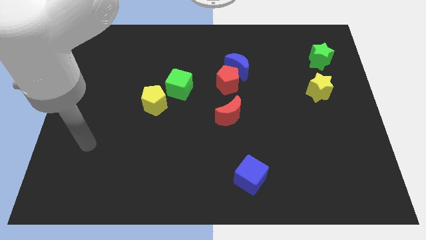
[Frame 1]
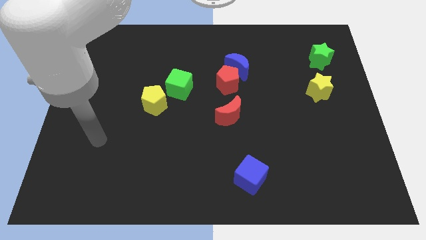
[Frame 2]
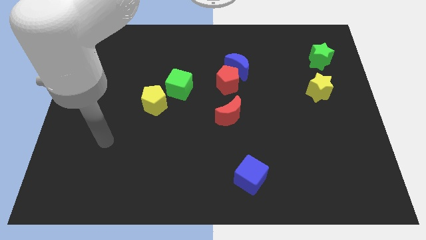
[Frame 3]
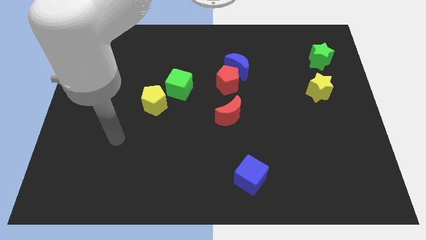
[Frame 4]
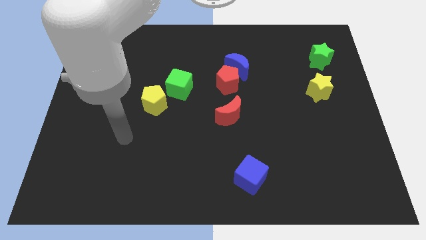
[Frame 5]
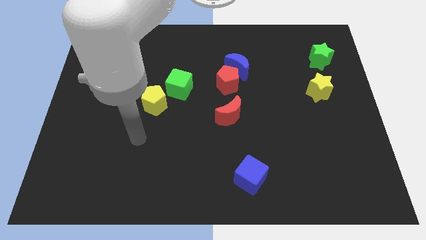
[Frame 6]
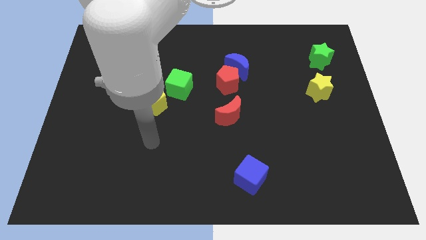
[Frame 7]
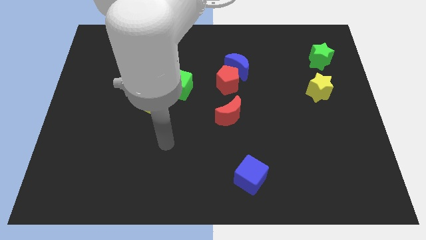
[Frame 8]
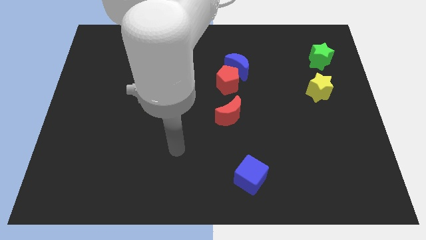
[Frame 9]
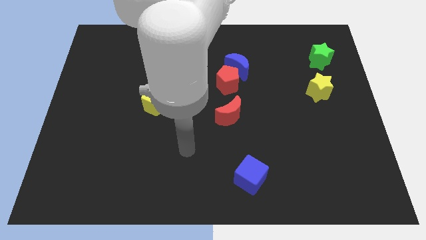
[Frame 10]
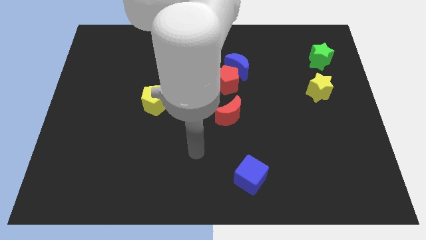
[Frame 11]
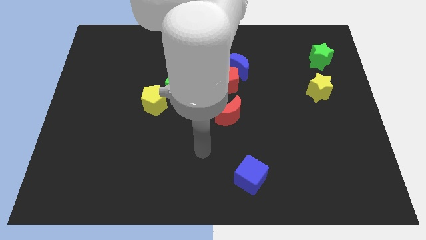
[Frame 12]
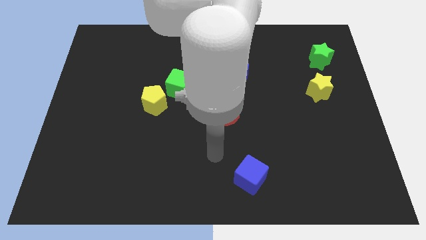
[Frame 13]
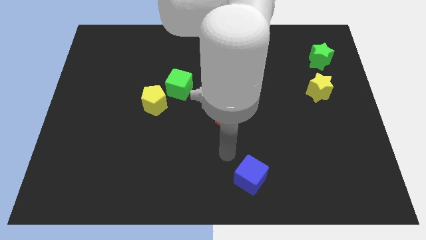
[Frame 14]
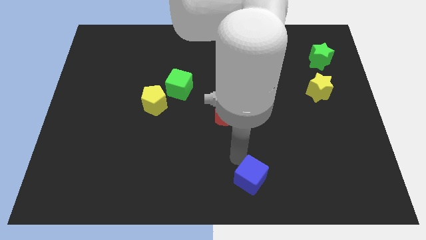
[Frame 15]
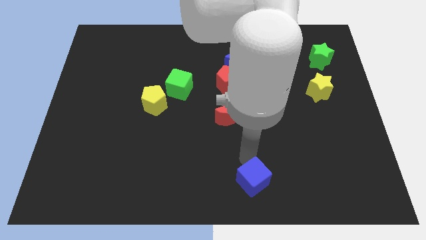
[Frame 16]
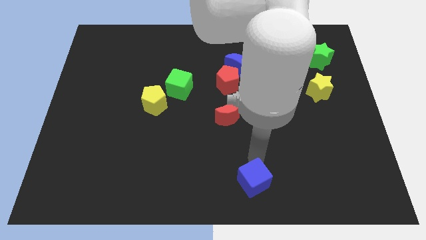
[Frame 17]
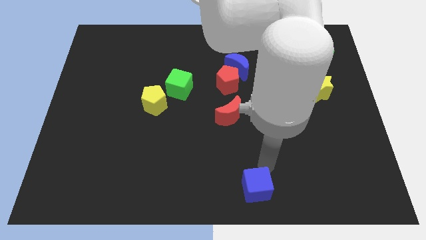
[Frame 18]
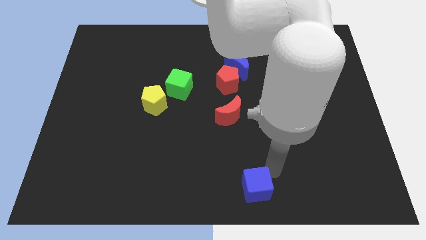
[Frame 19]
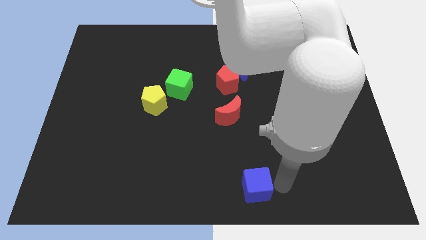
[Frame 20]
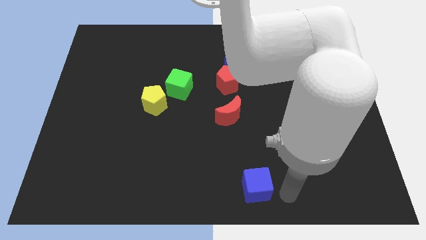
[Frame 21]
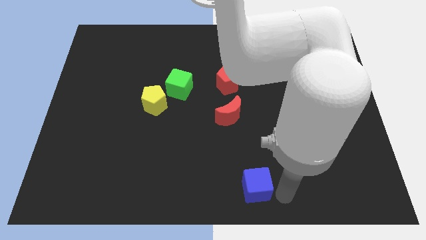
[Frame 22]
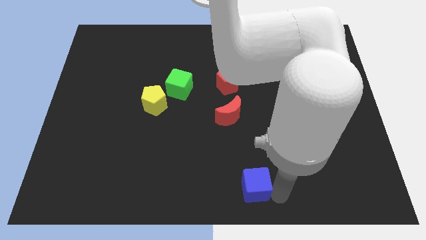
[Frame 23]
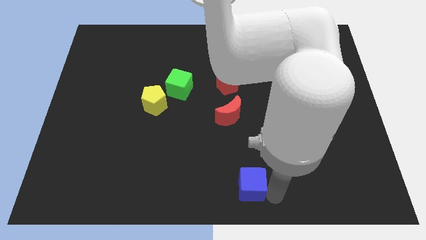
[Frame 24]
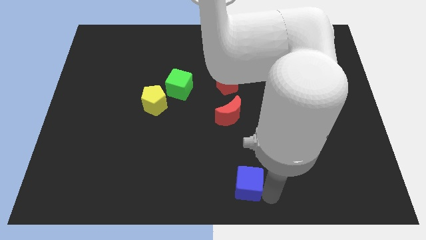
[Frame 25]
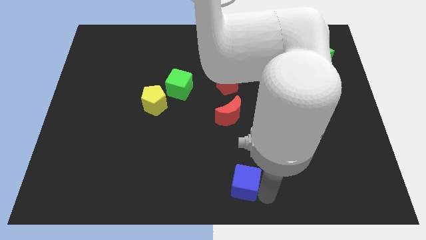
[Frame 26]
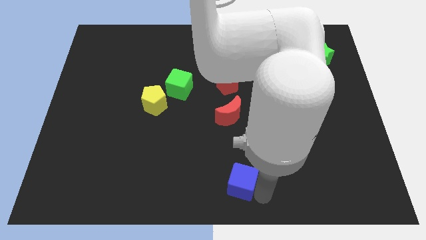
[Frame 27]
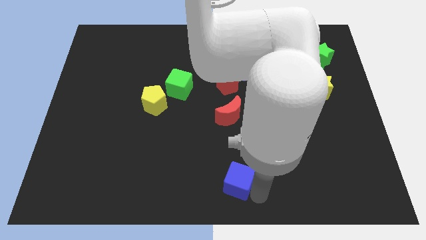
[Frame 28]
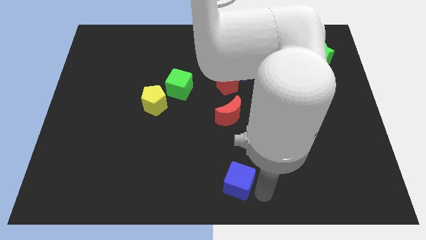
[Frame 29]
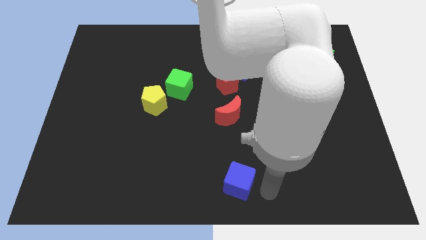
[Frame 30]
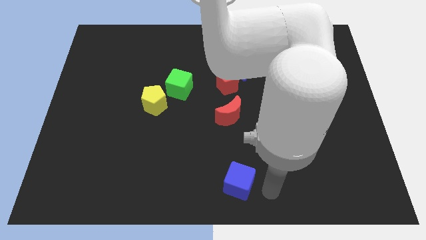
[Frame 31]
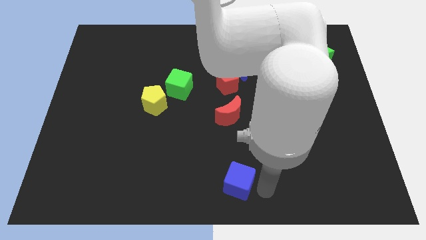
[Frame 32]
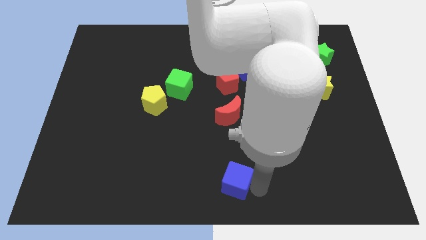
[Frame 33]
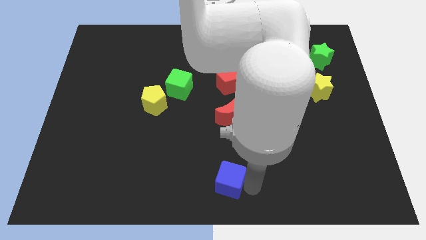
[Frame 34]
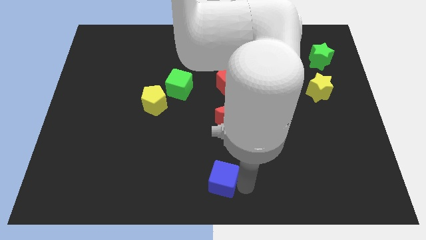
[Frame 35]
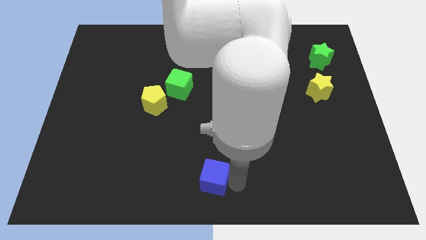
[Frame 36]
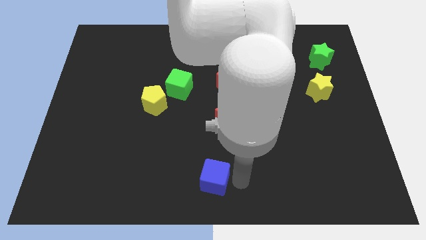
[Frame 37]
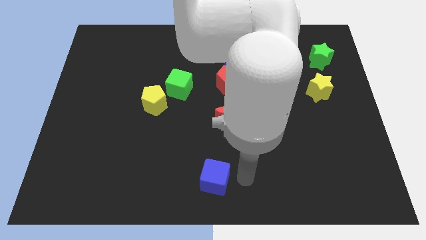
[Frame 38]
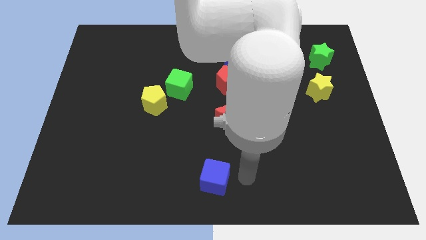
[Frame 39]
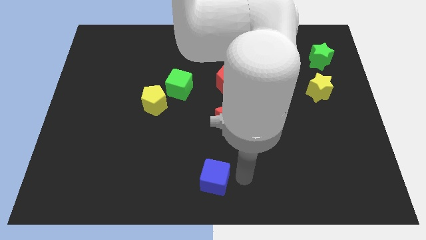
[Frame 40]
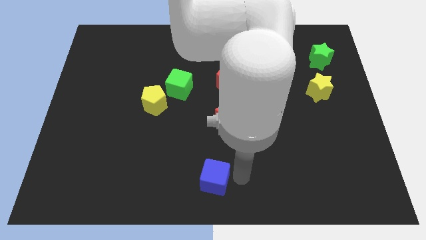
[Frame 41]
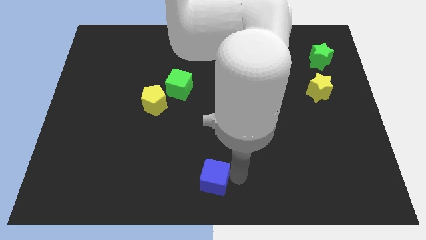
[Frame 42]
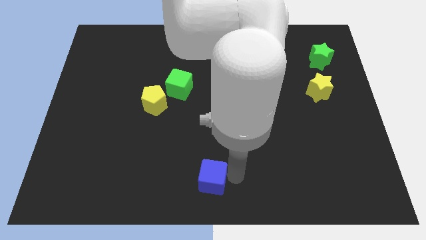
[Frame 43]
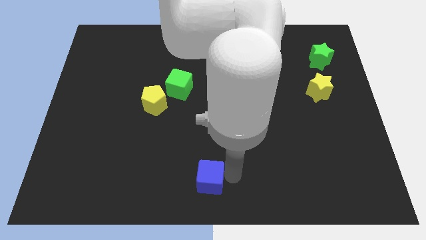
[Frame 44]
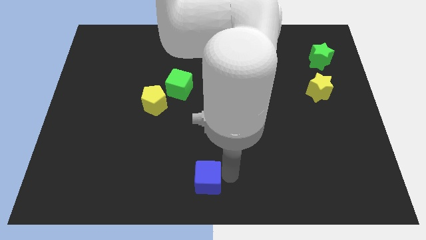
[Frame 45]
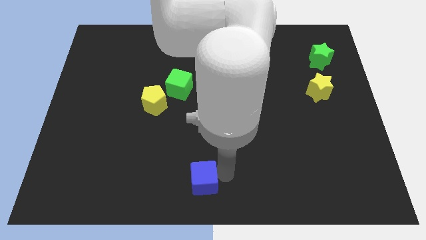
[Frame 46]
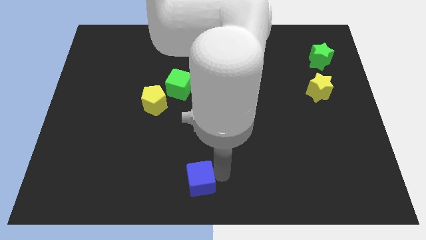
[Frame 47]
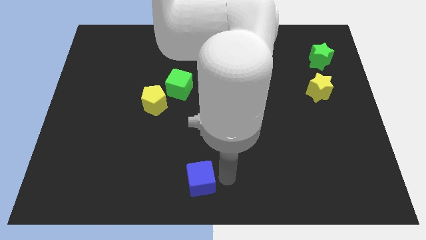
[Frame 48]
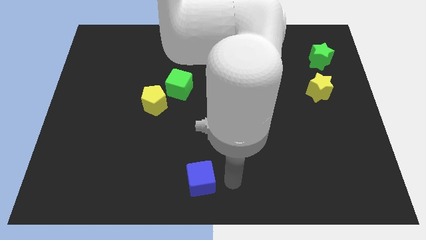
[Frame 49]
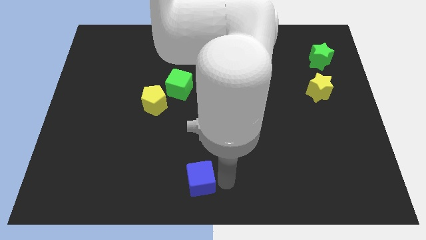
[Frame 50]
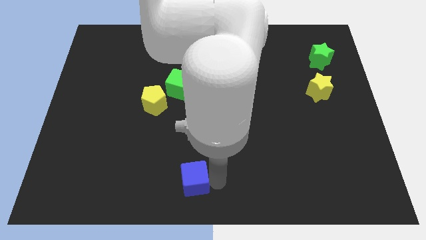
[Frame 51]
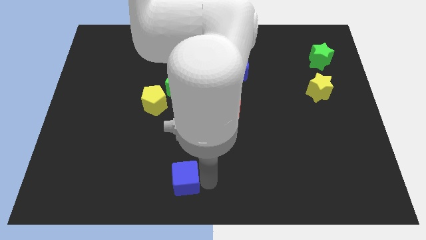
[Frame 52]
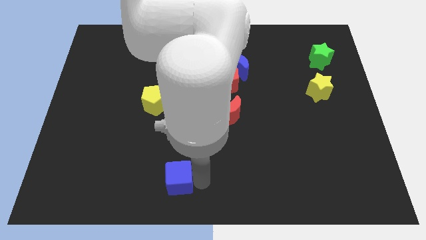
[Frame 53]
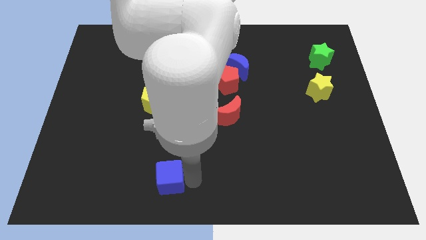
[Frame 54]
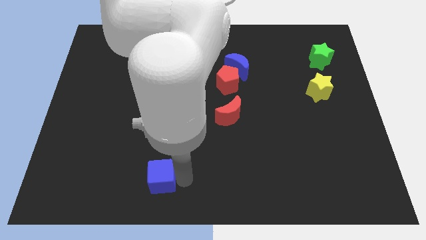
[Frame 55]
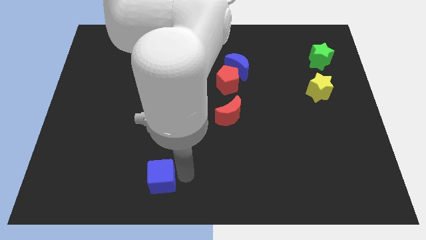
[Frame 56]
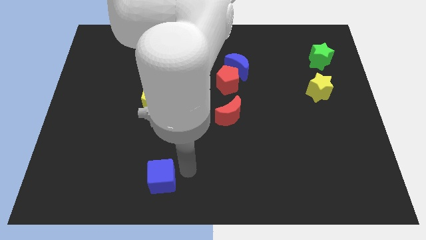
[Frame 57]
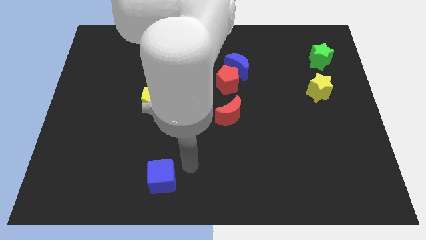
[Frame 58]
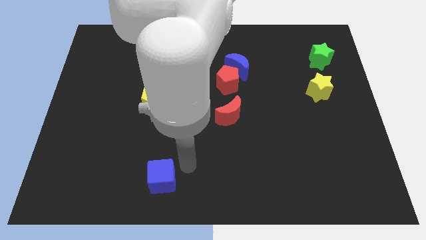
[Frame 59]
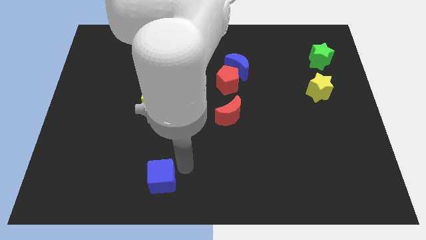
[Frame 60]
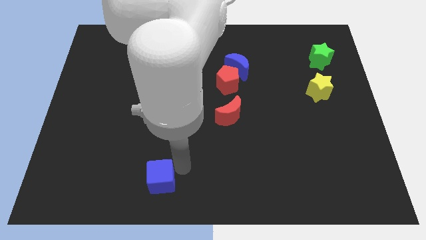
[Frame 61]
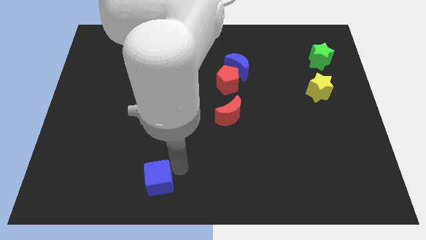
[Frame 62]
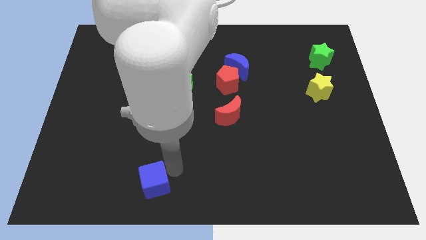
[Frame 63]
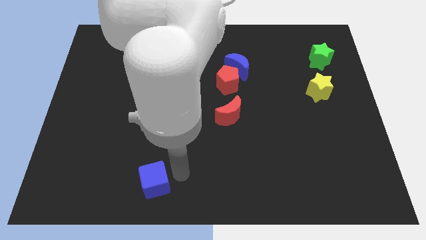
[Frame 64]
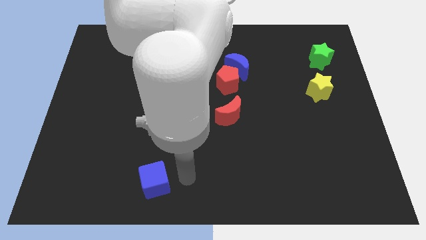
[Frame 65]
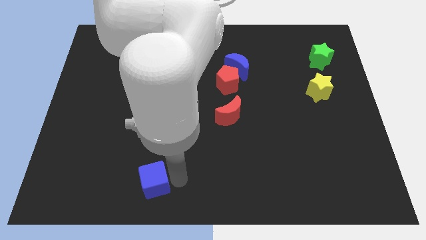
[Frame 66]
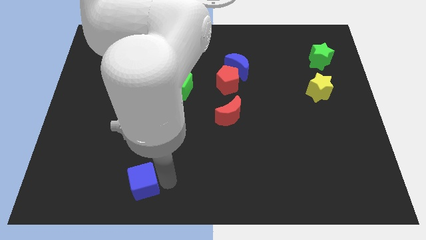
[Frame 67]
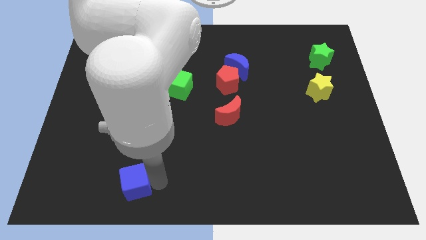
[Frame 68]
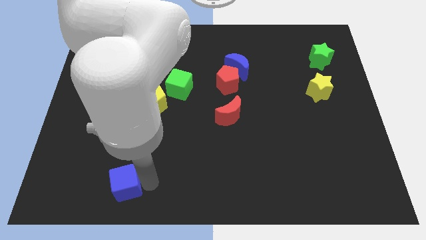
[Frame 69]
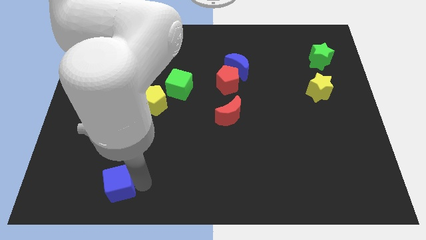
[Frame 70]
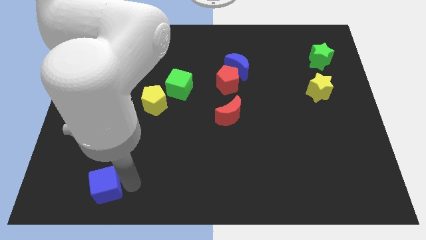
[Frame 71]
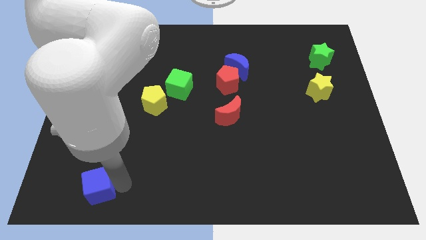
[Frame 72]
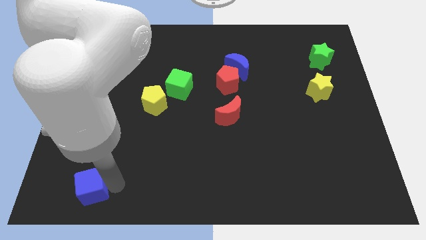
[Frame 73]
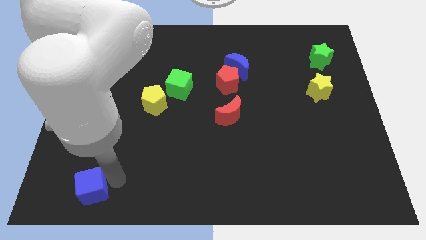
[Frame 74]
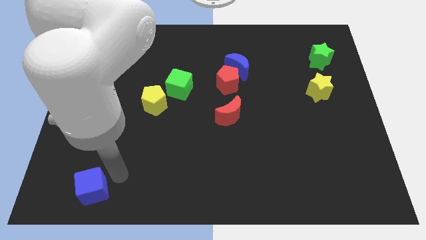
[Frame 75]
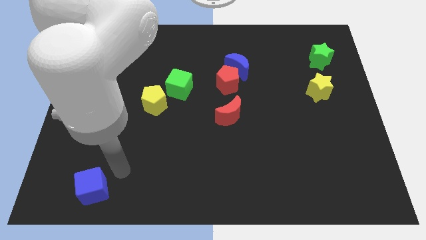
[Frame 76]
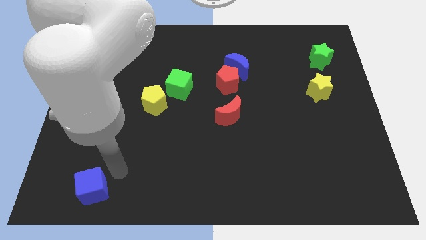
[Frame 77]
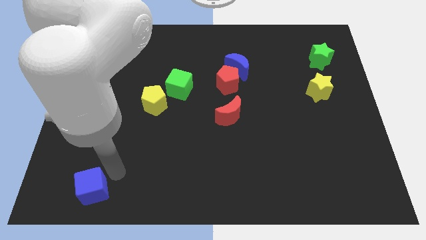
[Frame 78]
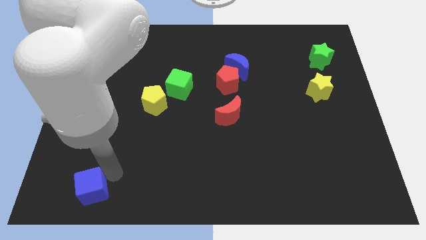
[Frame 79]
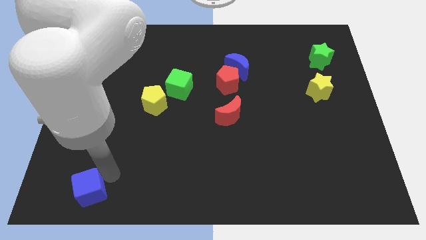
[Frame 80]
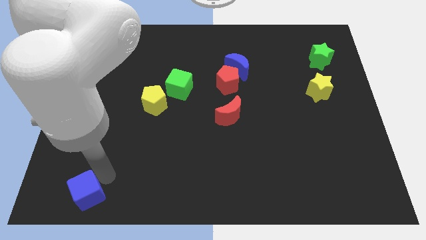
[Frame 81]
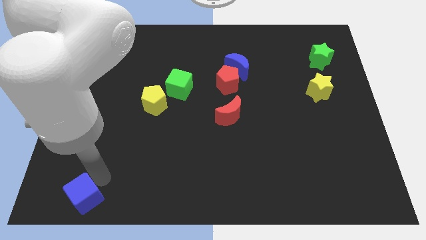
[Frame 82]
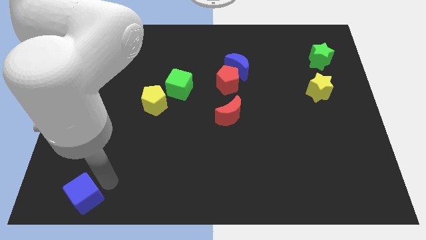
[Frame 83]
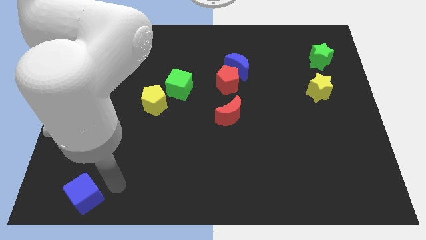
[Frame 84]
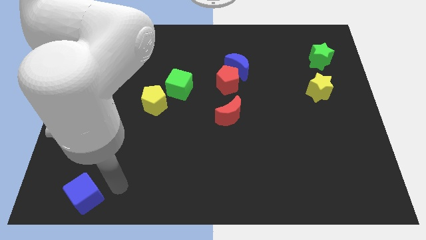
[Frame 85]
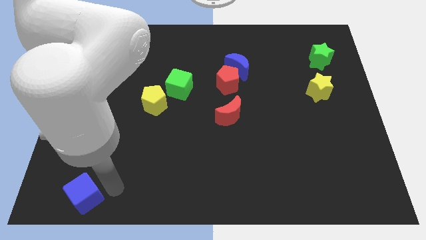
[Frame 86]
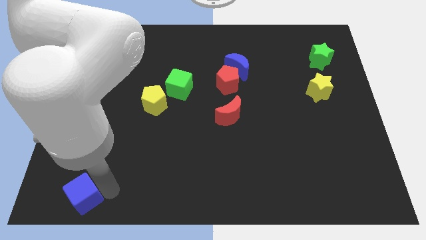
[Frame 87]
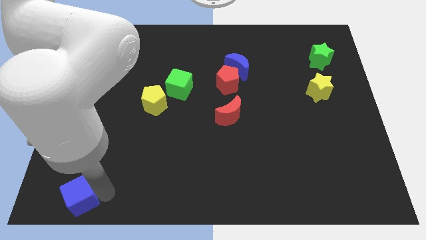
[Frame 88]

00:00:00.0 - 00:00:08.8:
move the blue cube to the bottom left
